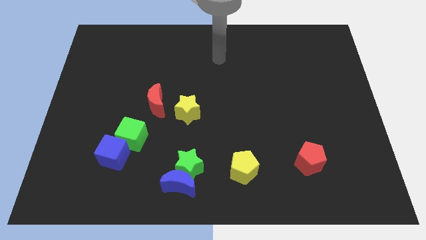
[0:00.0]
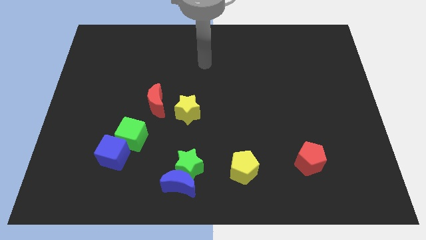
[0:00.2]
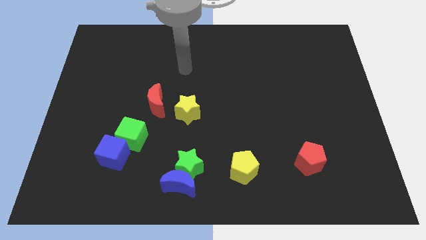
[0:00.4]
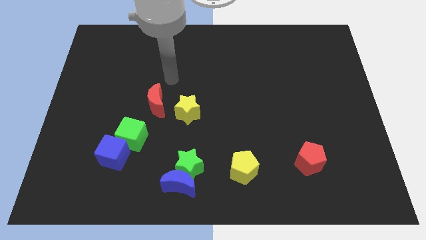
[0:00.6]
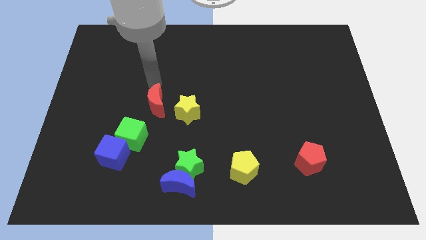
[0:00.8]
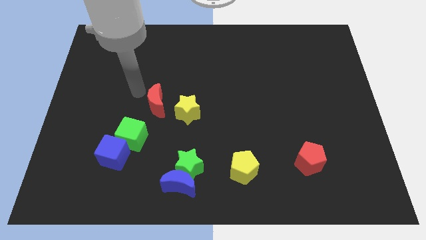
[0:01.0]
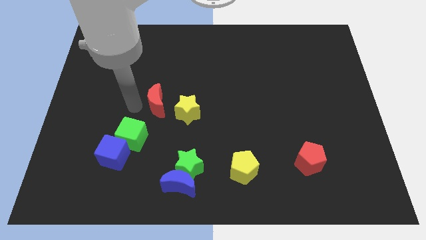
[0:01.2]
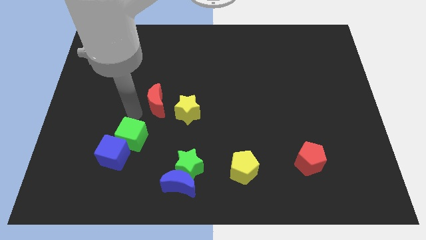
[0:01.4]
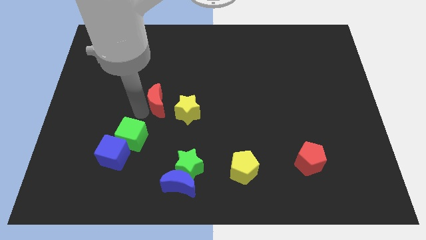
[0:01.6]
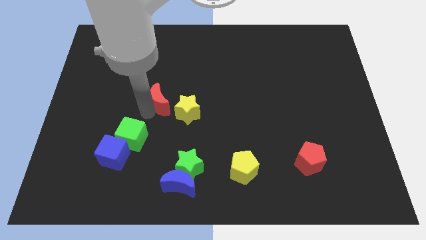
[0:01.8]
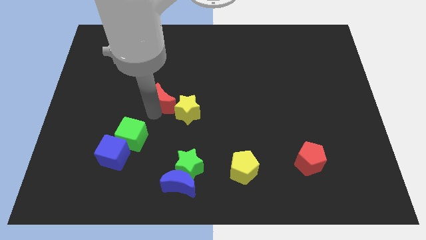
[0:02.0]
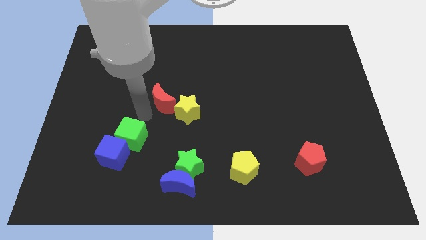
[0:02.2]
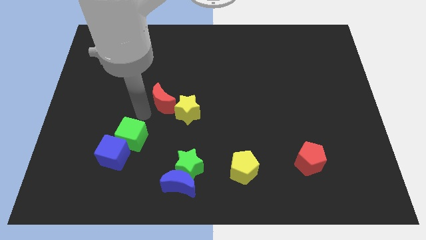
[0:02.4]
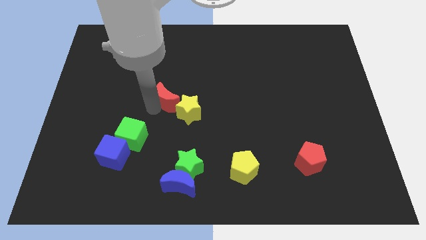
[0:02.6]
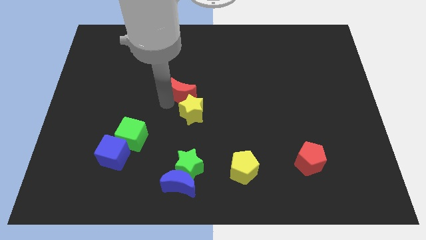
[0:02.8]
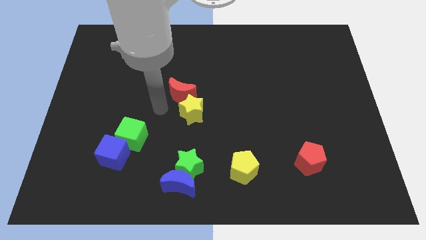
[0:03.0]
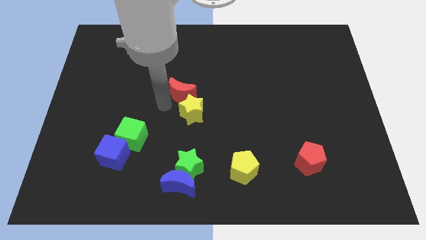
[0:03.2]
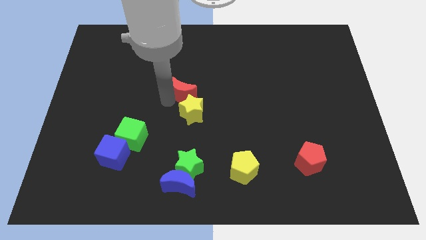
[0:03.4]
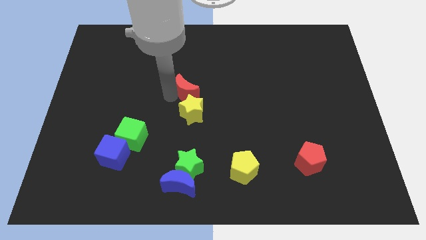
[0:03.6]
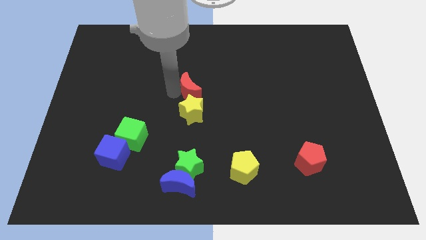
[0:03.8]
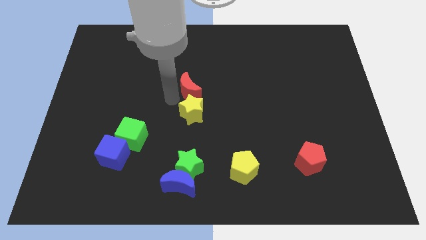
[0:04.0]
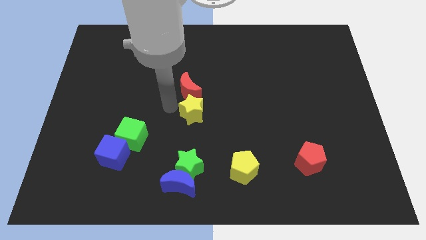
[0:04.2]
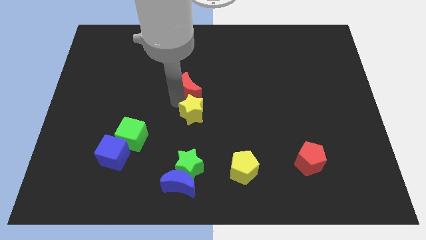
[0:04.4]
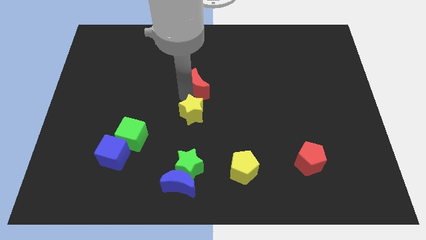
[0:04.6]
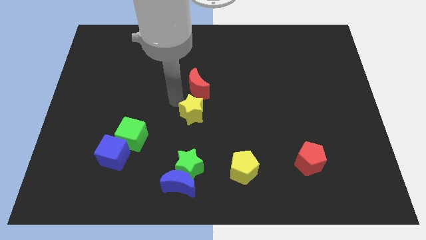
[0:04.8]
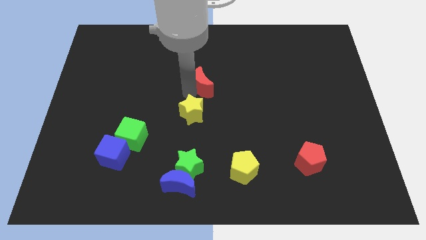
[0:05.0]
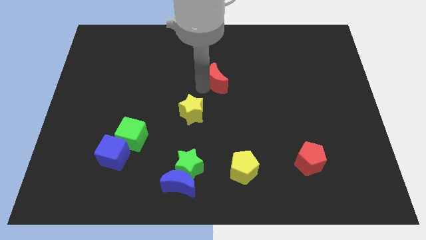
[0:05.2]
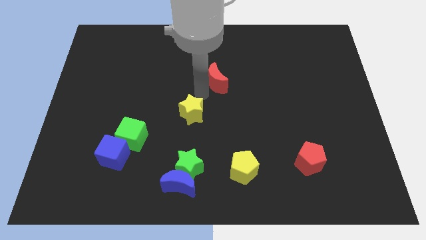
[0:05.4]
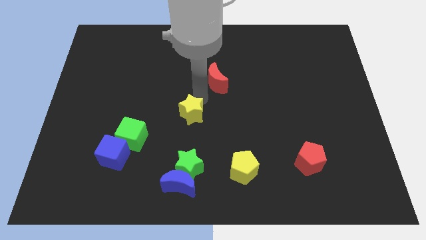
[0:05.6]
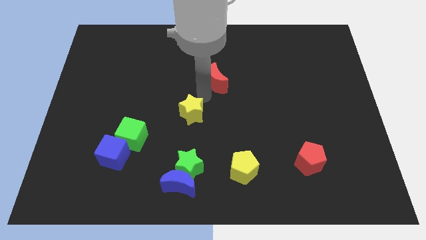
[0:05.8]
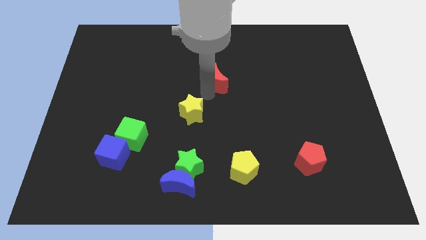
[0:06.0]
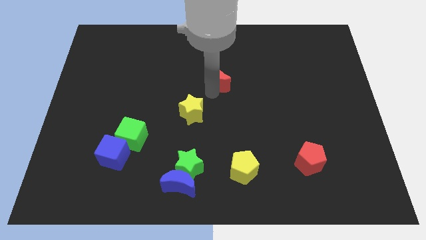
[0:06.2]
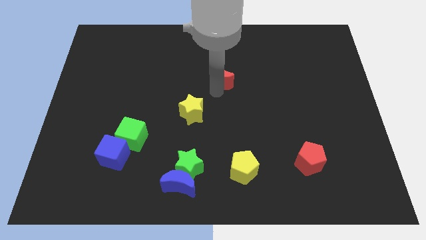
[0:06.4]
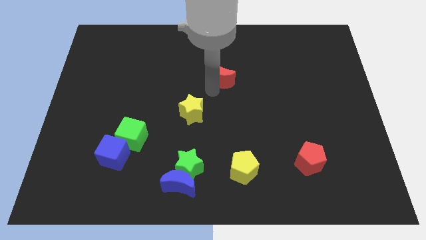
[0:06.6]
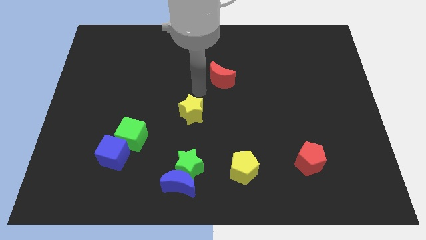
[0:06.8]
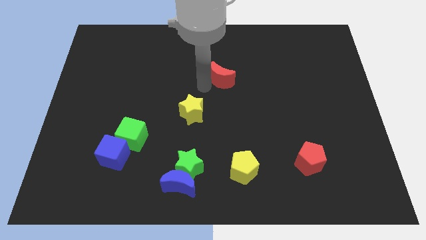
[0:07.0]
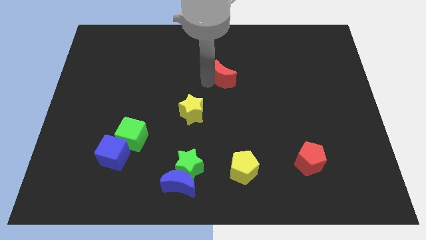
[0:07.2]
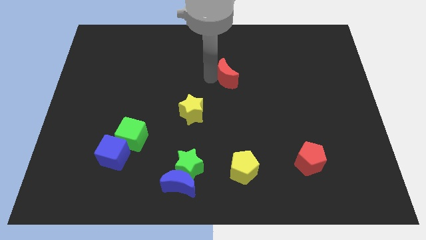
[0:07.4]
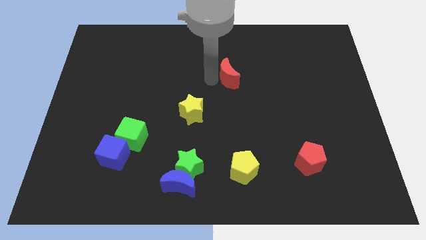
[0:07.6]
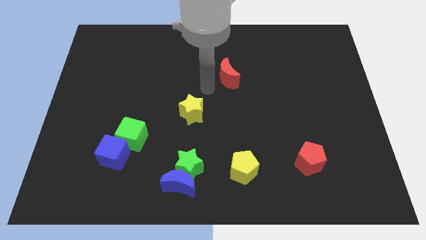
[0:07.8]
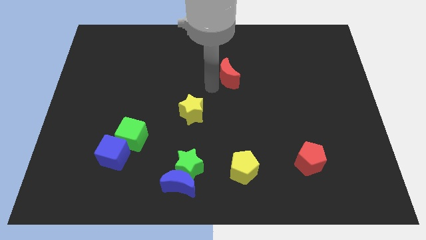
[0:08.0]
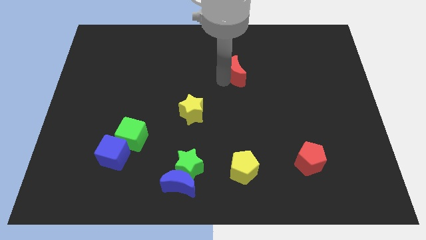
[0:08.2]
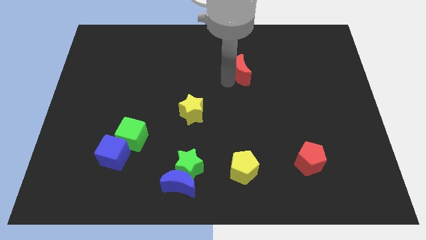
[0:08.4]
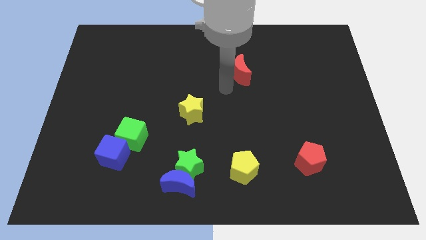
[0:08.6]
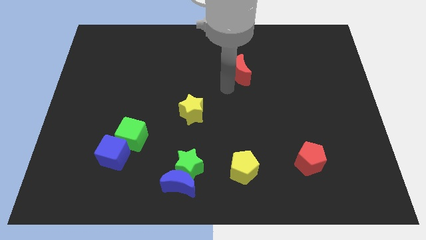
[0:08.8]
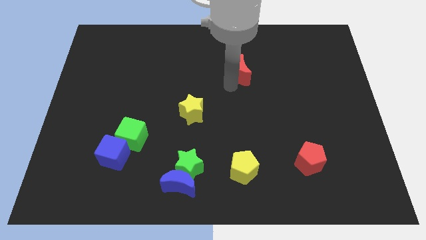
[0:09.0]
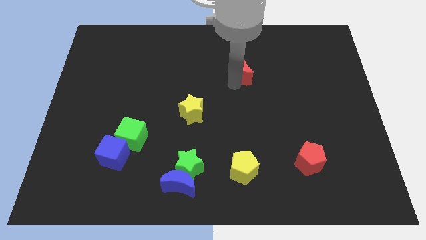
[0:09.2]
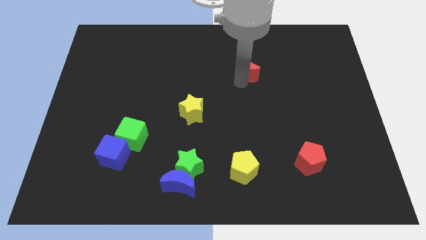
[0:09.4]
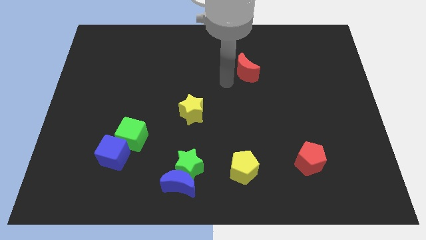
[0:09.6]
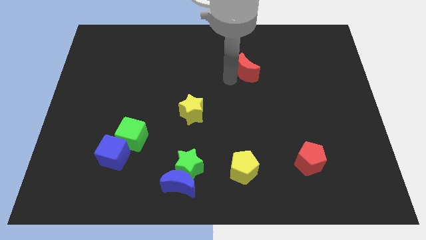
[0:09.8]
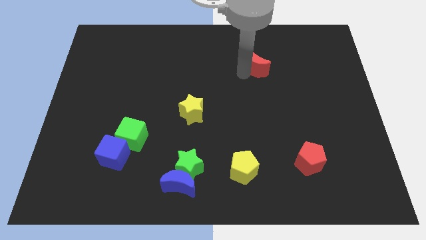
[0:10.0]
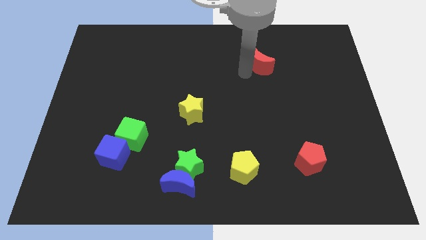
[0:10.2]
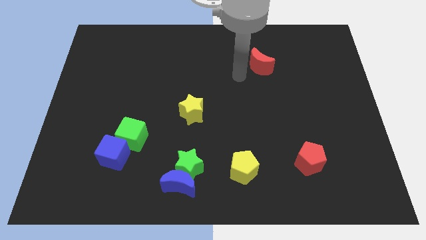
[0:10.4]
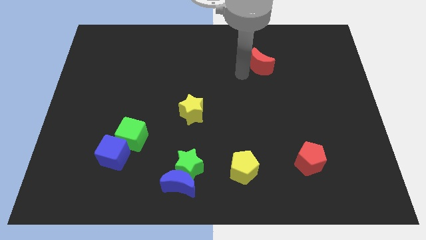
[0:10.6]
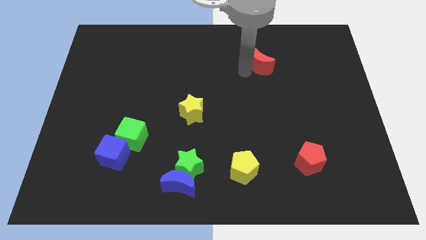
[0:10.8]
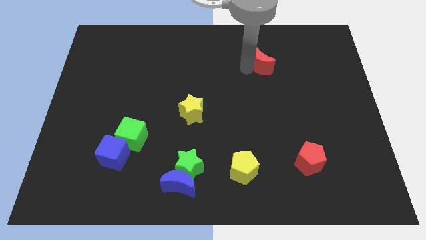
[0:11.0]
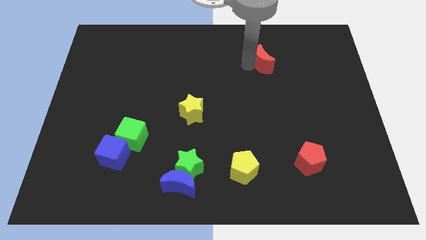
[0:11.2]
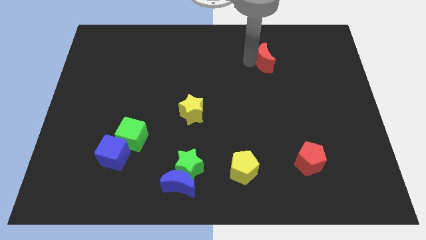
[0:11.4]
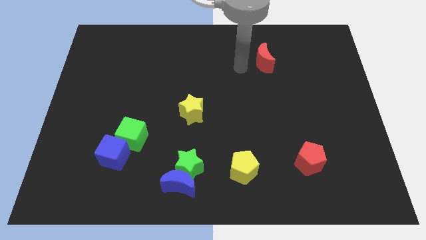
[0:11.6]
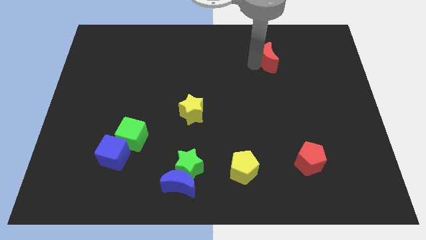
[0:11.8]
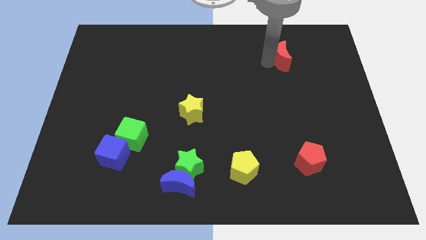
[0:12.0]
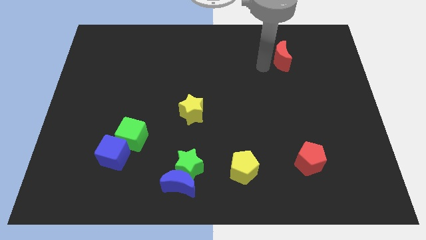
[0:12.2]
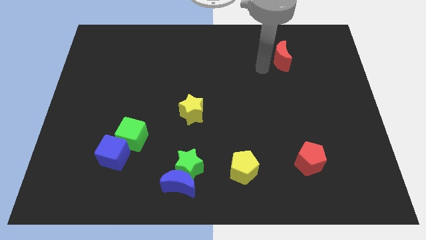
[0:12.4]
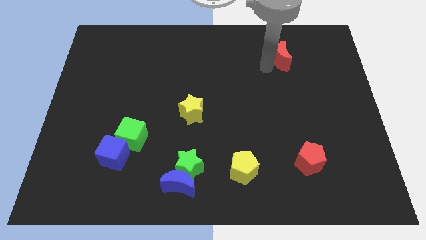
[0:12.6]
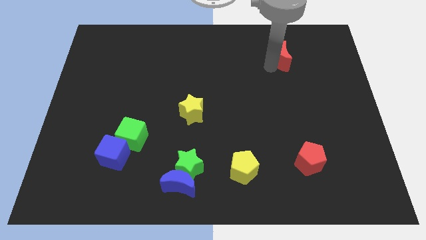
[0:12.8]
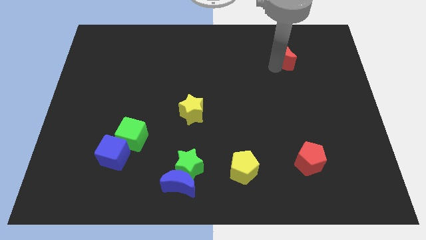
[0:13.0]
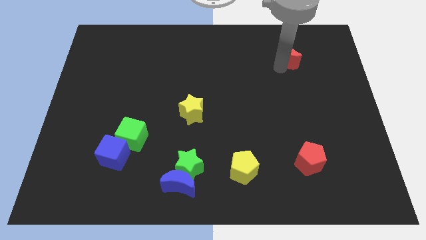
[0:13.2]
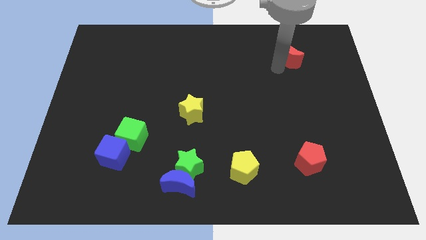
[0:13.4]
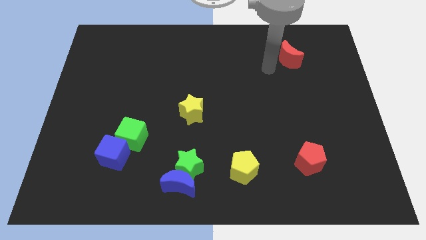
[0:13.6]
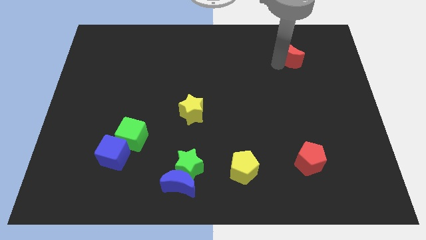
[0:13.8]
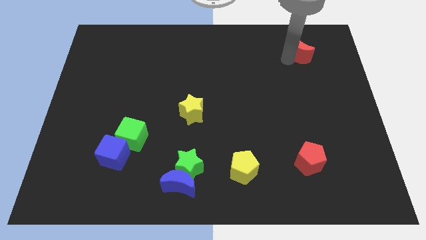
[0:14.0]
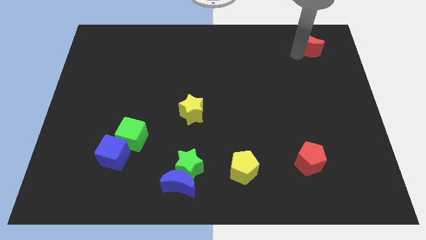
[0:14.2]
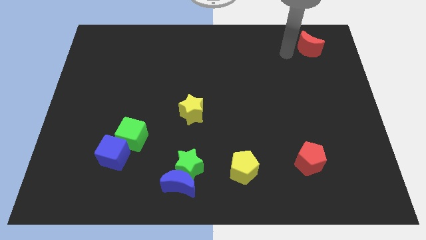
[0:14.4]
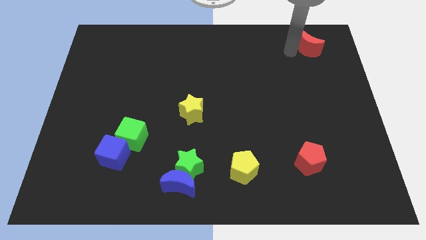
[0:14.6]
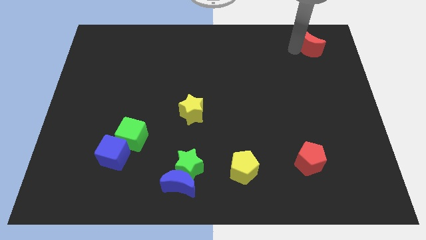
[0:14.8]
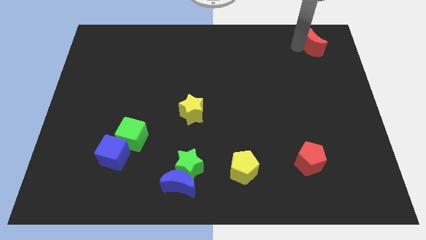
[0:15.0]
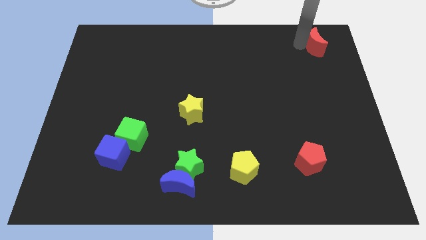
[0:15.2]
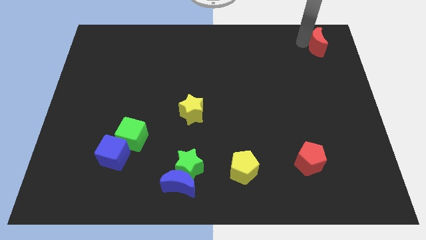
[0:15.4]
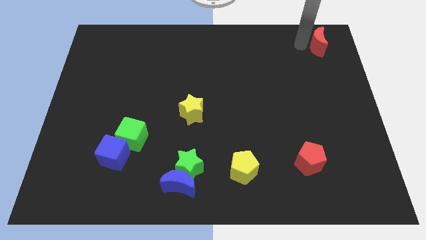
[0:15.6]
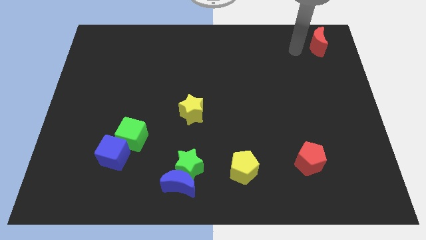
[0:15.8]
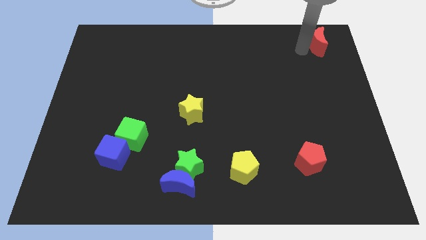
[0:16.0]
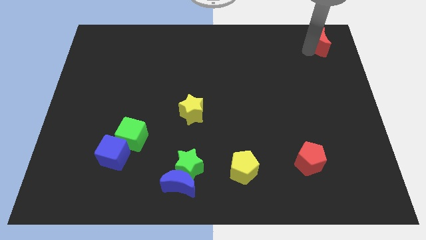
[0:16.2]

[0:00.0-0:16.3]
slide the red moon to the upper right corner
